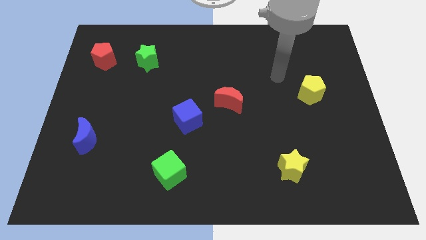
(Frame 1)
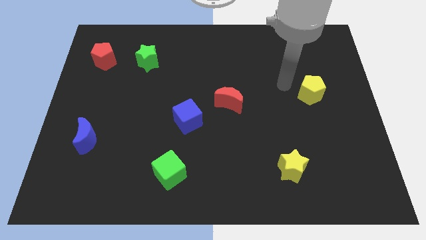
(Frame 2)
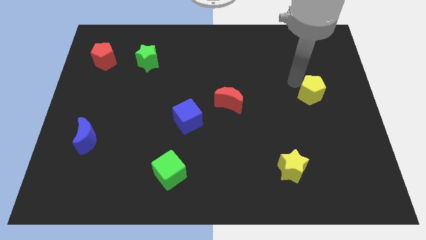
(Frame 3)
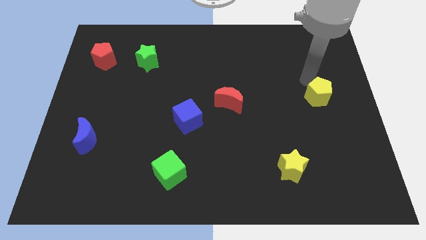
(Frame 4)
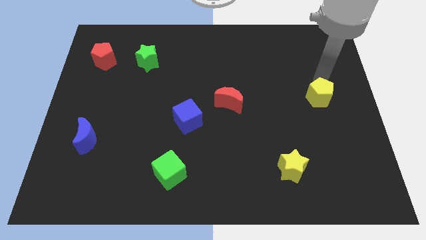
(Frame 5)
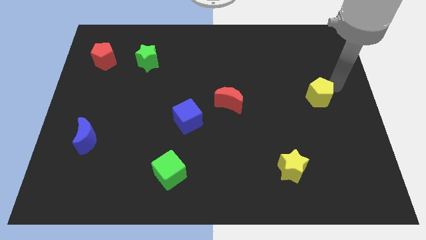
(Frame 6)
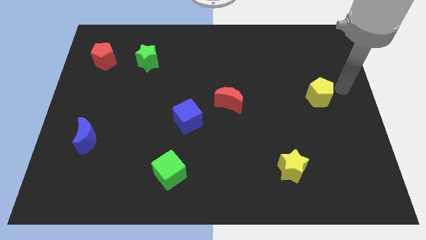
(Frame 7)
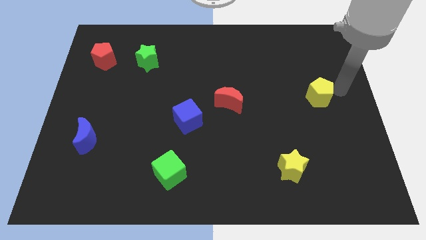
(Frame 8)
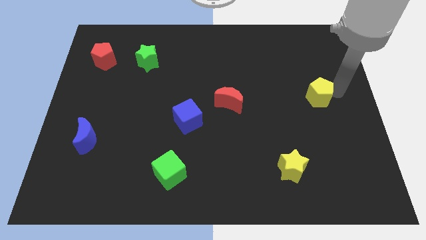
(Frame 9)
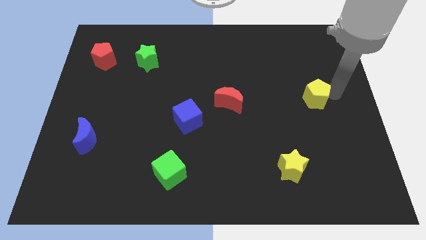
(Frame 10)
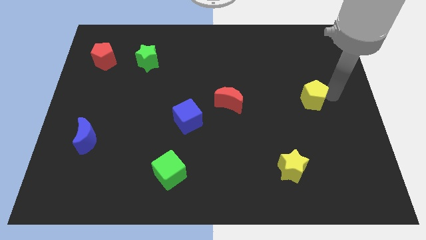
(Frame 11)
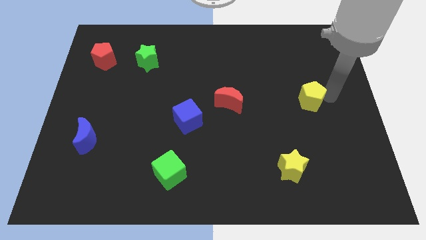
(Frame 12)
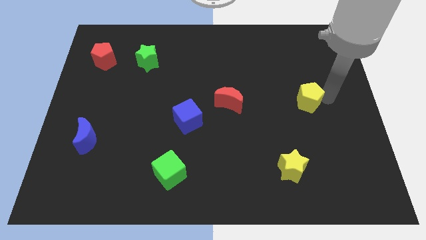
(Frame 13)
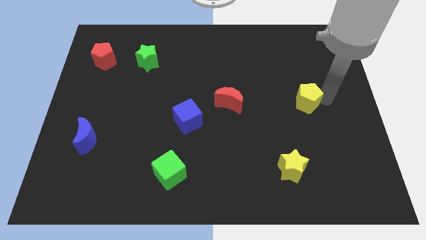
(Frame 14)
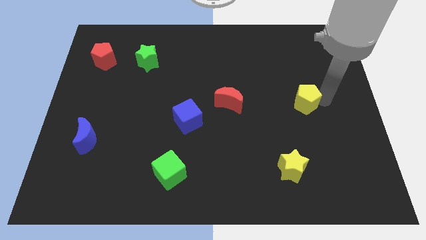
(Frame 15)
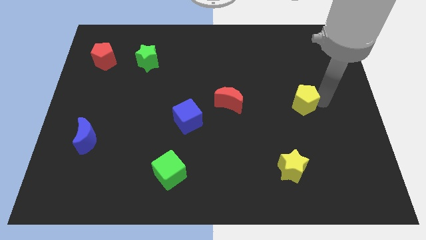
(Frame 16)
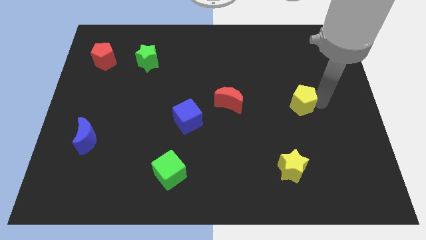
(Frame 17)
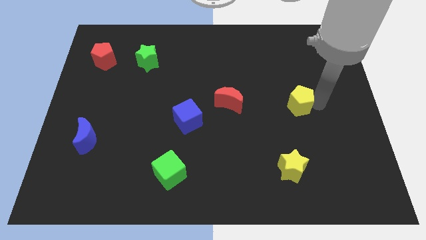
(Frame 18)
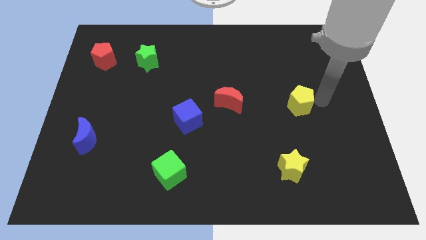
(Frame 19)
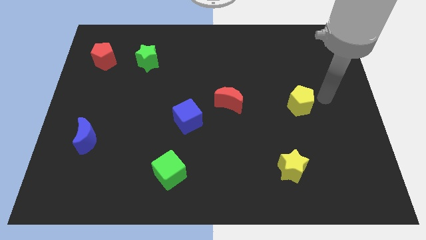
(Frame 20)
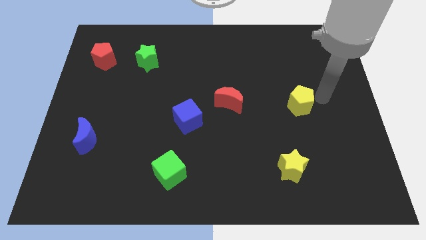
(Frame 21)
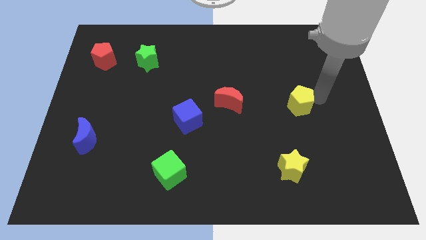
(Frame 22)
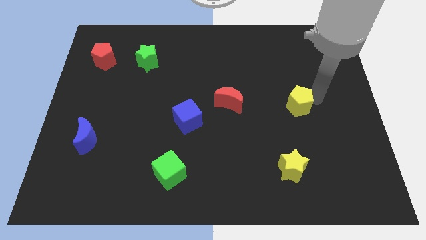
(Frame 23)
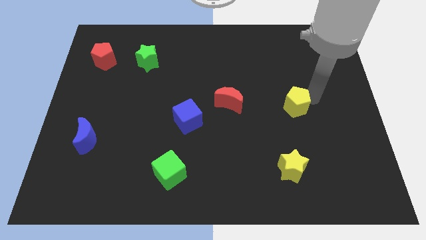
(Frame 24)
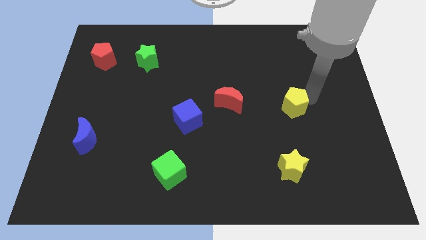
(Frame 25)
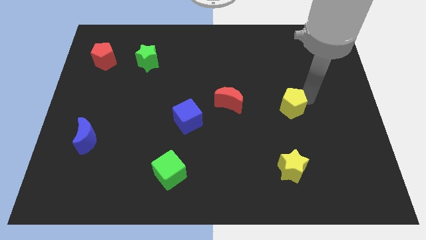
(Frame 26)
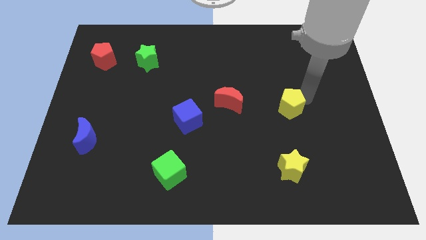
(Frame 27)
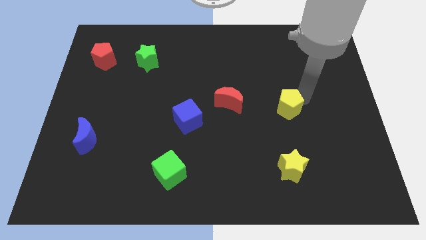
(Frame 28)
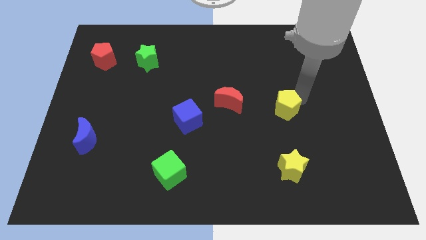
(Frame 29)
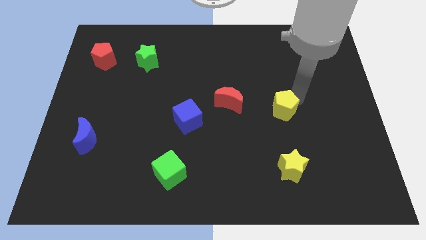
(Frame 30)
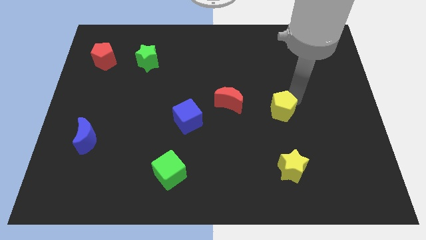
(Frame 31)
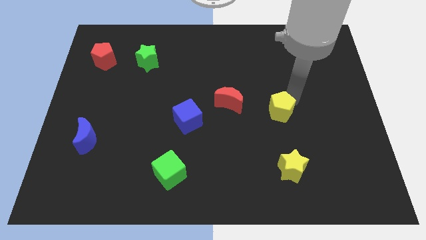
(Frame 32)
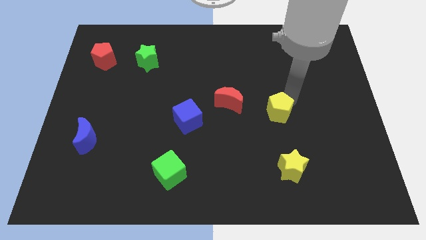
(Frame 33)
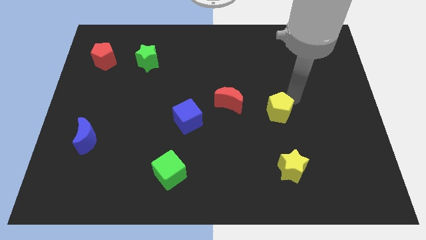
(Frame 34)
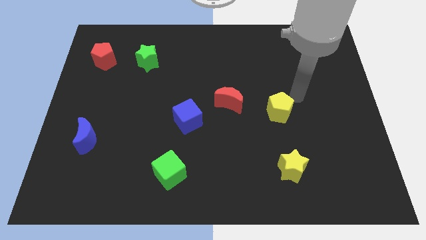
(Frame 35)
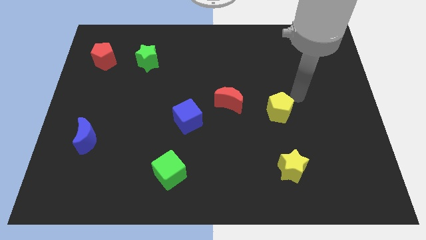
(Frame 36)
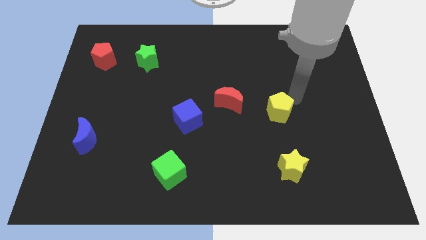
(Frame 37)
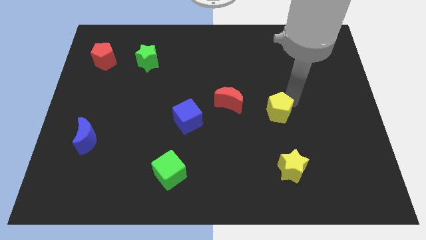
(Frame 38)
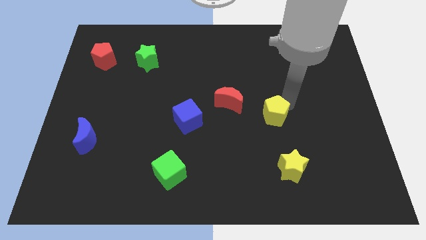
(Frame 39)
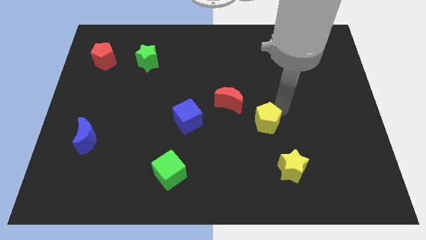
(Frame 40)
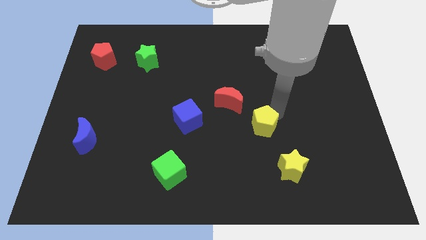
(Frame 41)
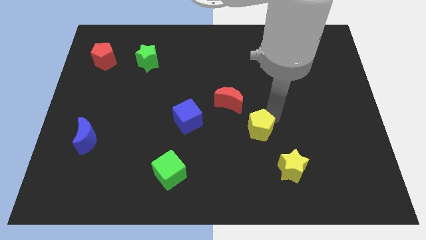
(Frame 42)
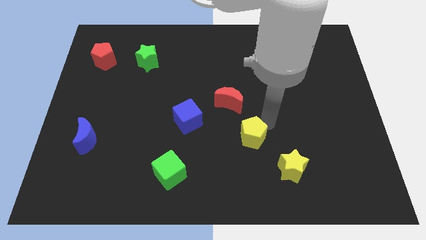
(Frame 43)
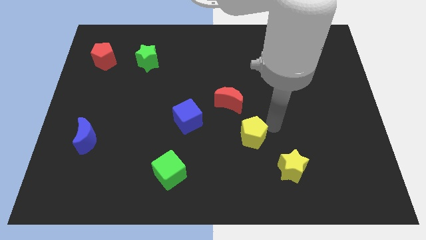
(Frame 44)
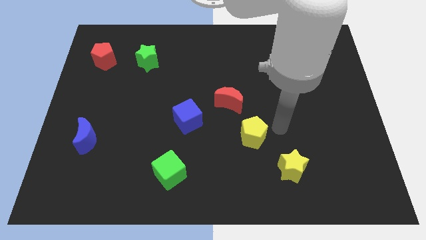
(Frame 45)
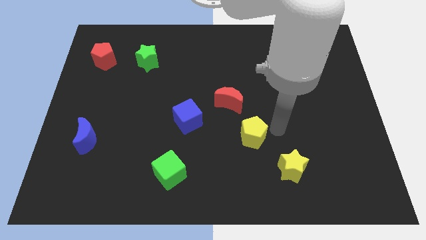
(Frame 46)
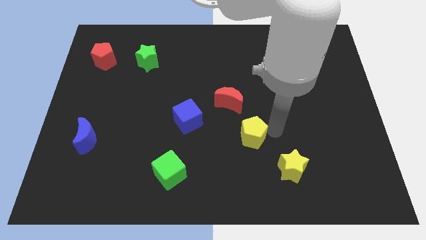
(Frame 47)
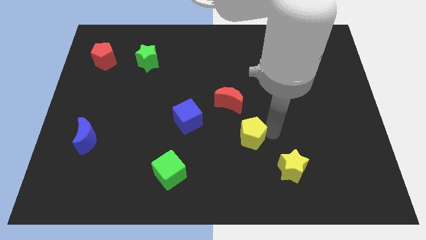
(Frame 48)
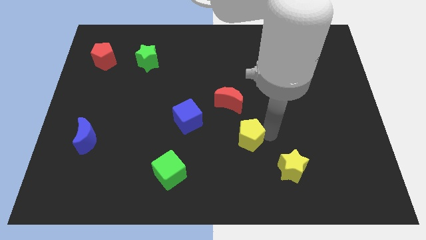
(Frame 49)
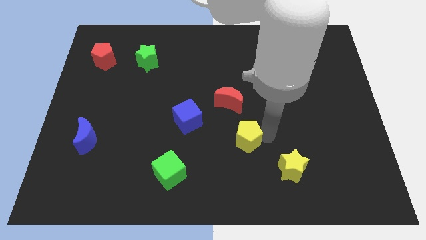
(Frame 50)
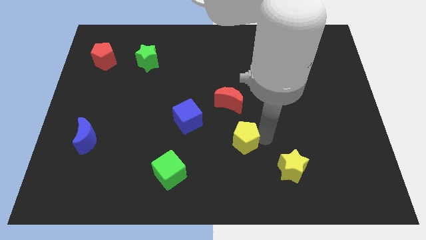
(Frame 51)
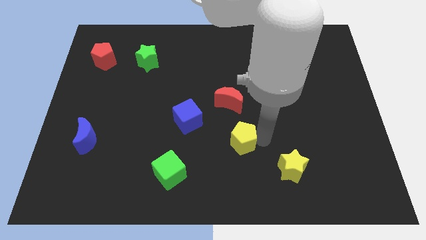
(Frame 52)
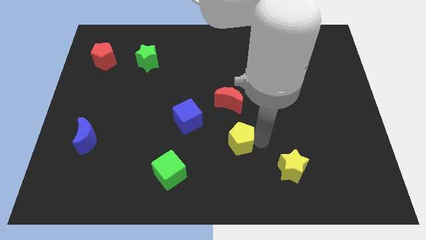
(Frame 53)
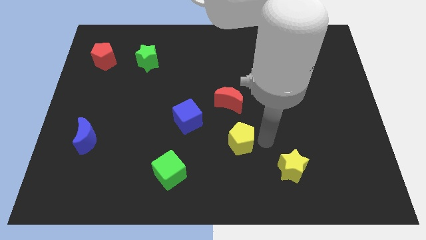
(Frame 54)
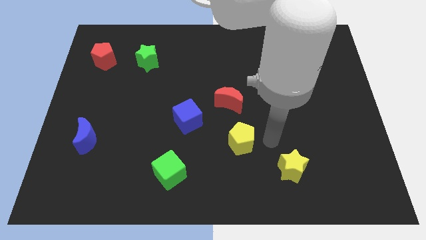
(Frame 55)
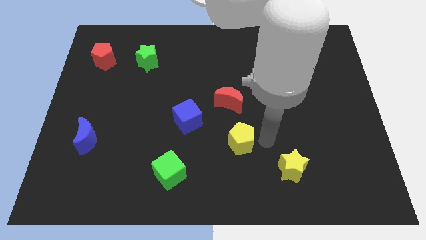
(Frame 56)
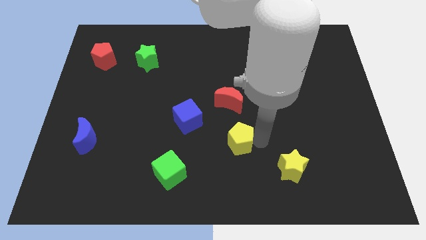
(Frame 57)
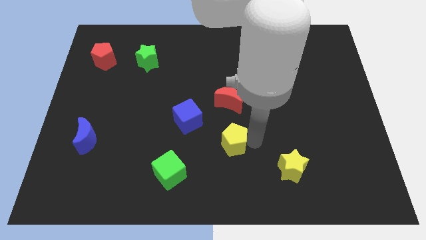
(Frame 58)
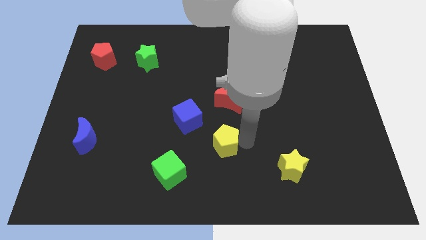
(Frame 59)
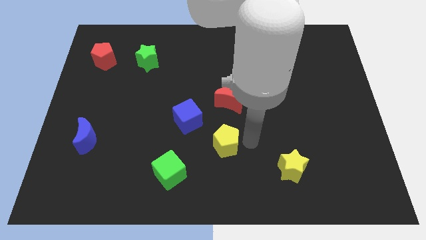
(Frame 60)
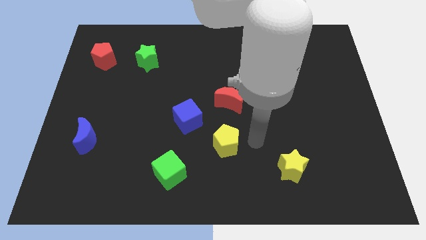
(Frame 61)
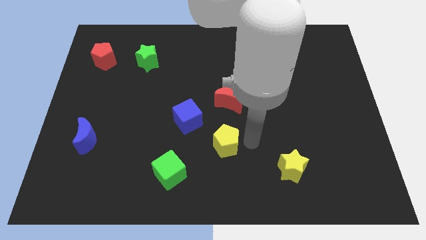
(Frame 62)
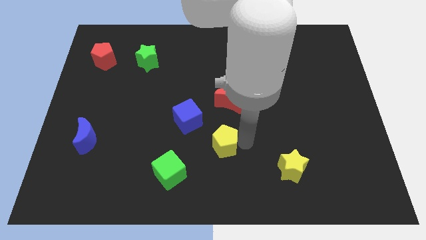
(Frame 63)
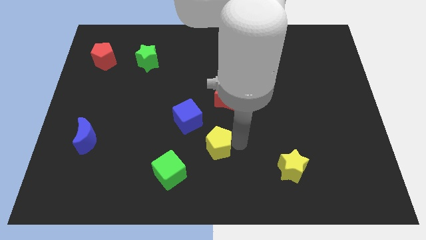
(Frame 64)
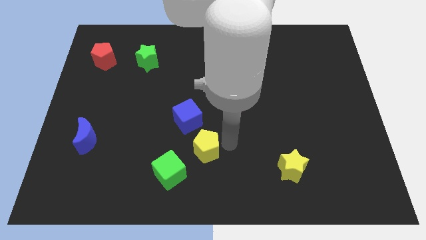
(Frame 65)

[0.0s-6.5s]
push the yellow pentagon to the bottom of the blue cube
